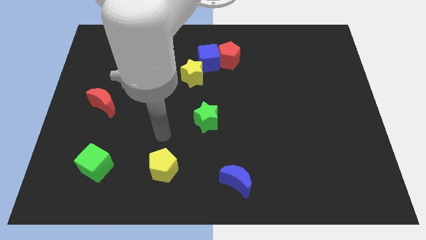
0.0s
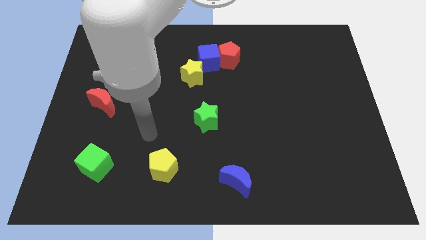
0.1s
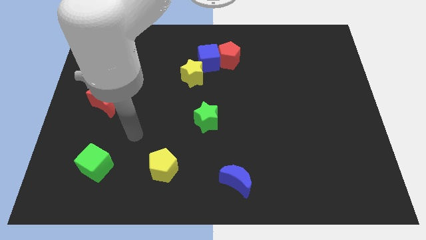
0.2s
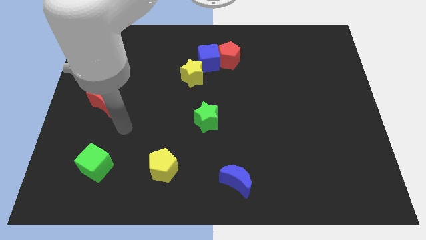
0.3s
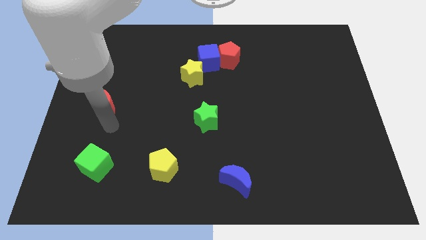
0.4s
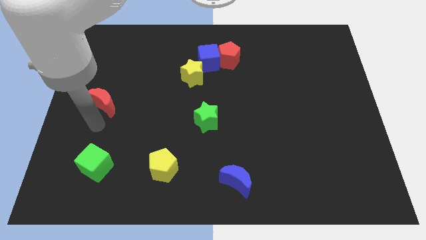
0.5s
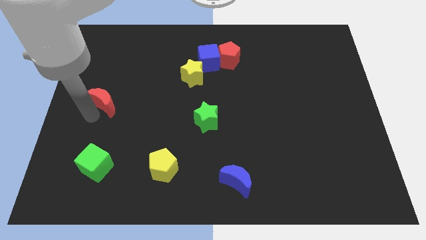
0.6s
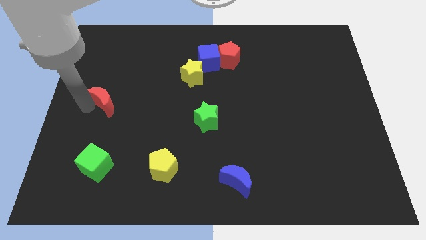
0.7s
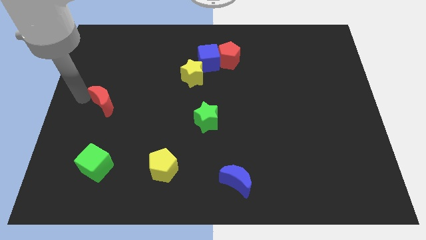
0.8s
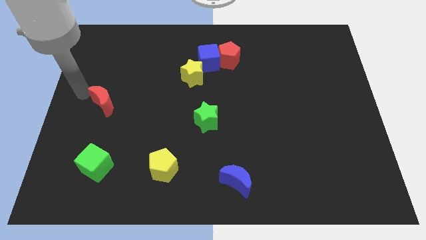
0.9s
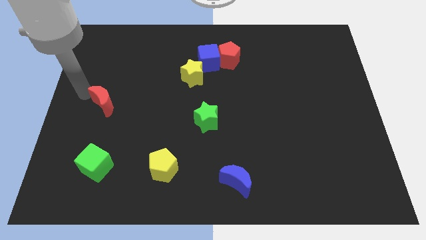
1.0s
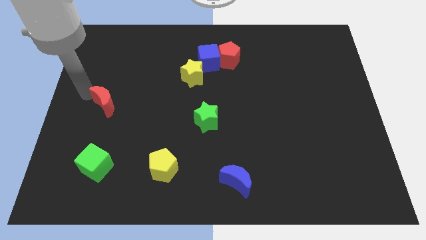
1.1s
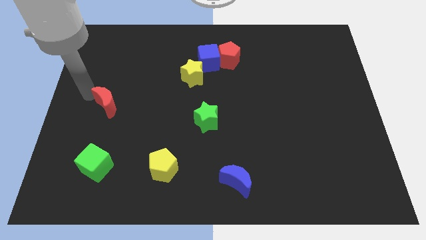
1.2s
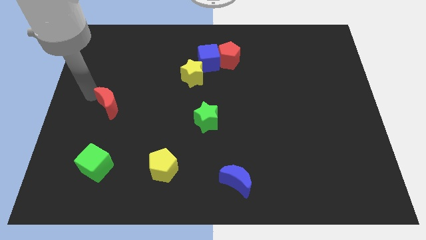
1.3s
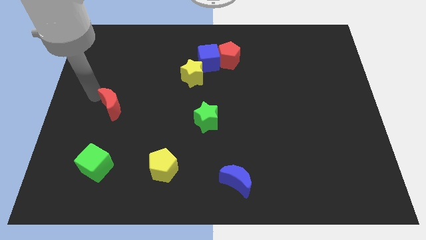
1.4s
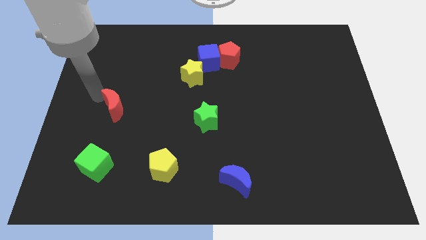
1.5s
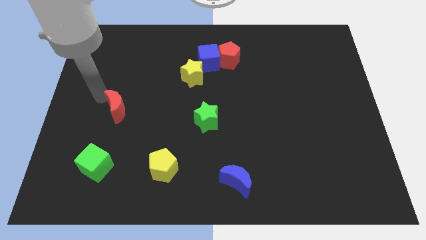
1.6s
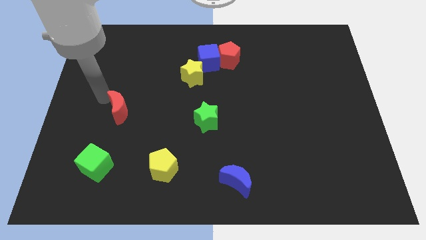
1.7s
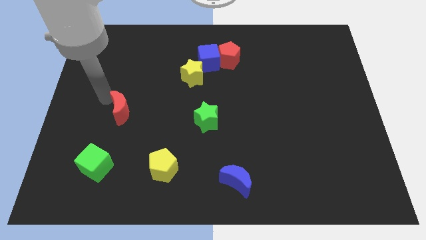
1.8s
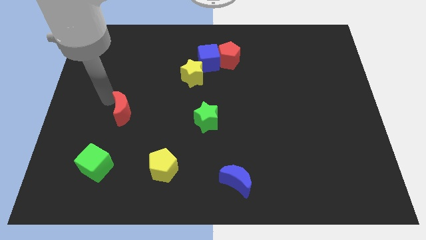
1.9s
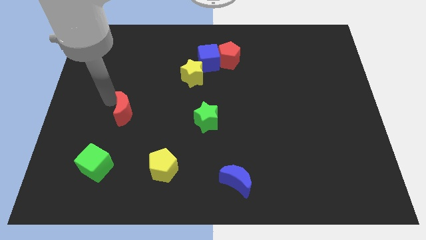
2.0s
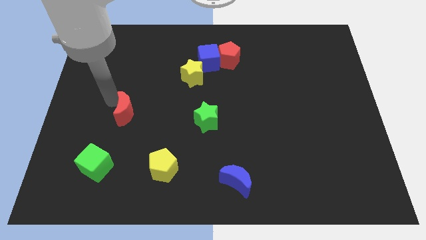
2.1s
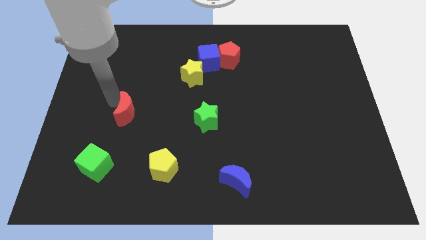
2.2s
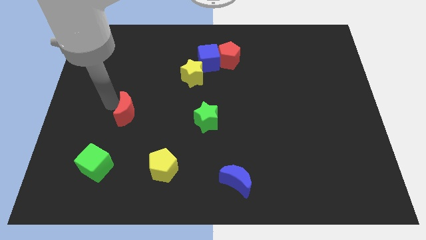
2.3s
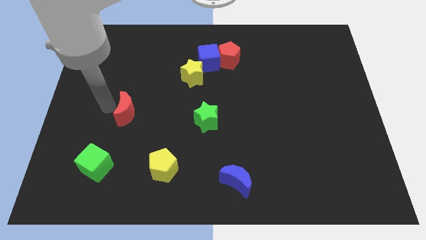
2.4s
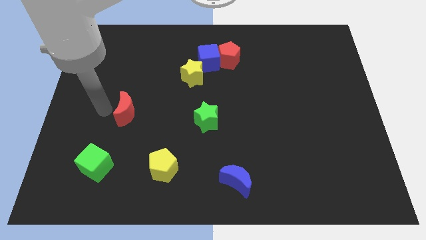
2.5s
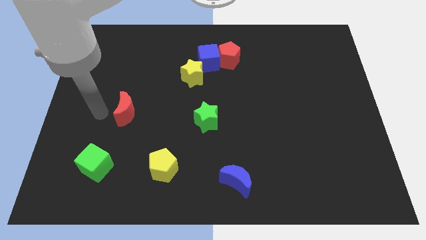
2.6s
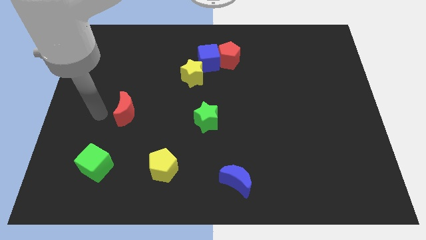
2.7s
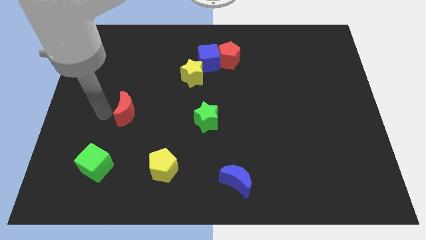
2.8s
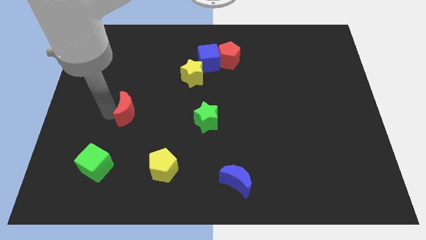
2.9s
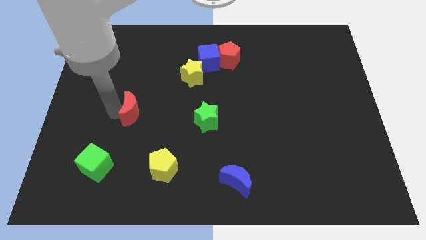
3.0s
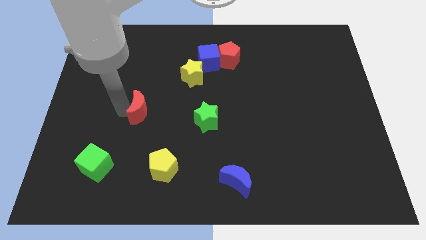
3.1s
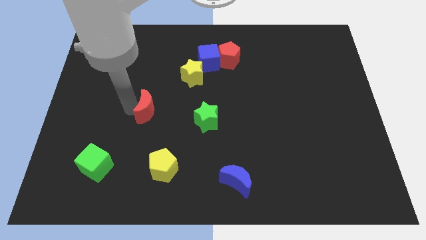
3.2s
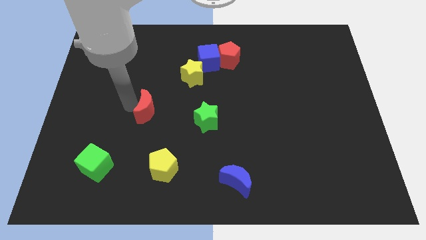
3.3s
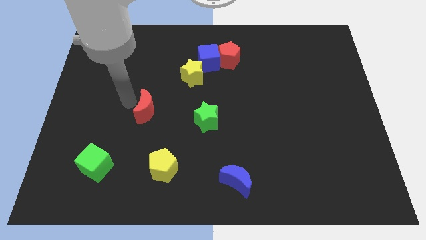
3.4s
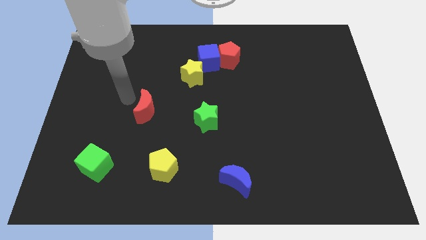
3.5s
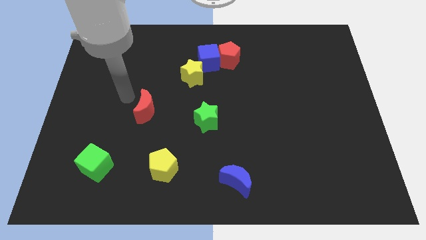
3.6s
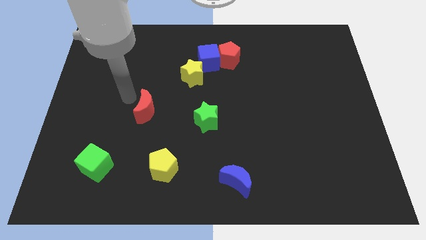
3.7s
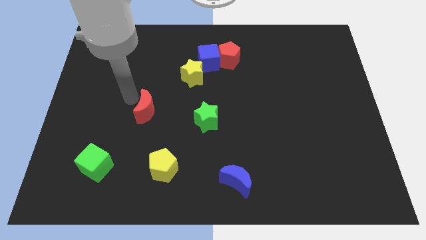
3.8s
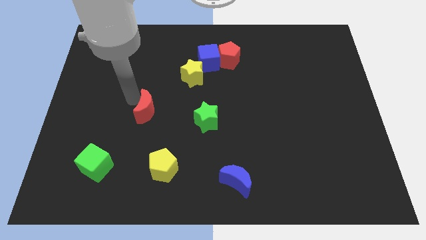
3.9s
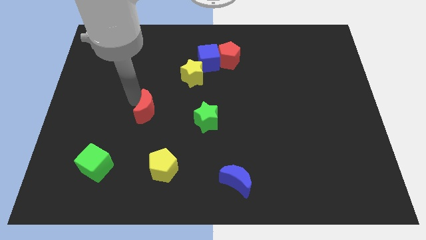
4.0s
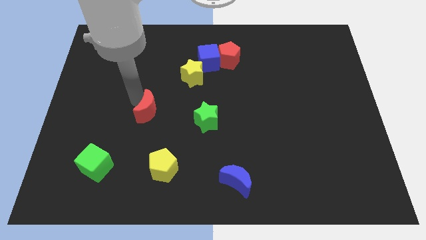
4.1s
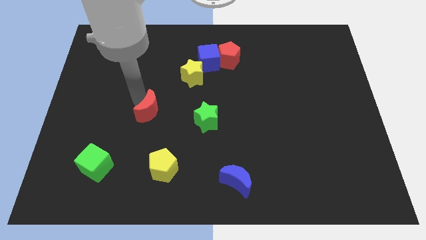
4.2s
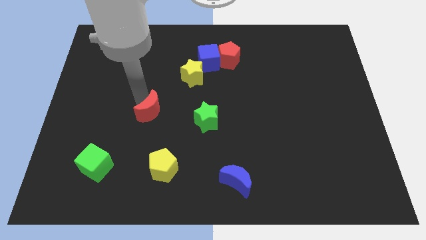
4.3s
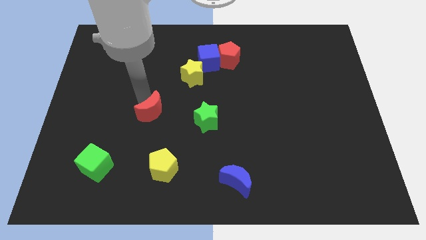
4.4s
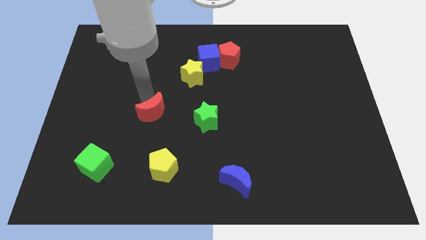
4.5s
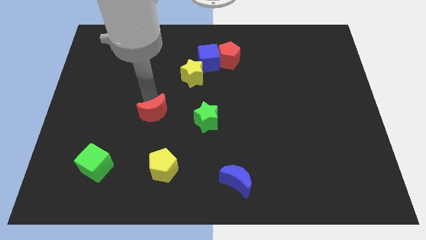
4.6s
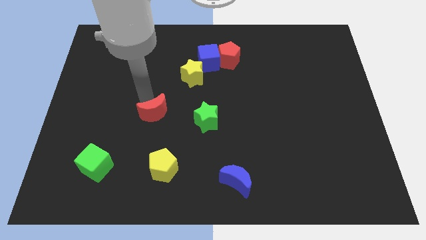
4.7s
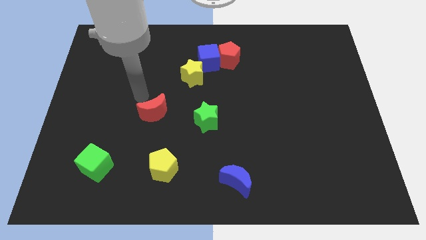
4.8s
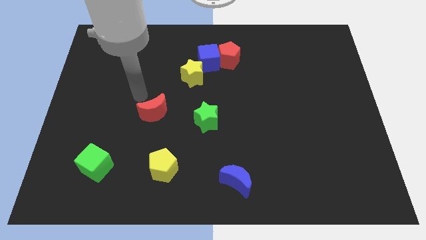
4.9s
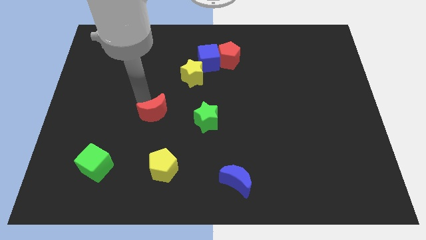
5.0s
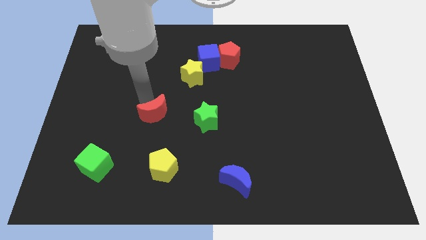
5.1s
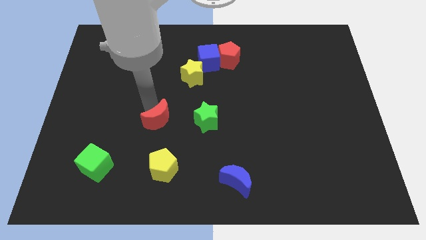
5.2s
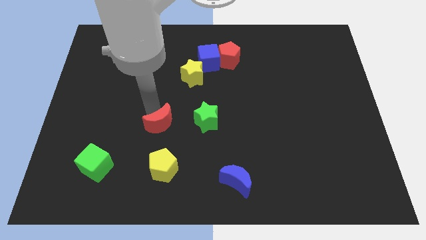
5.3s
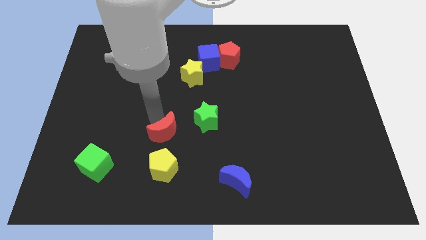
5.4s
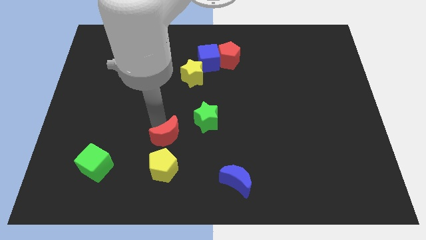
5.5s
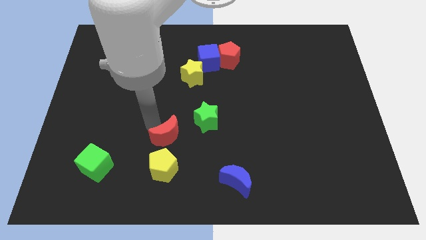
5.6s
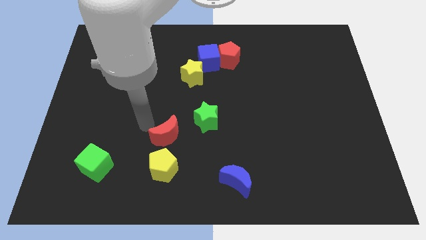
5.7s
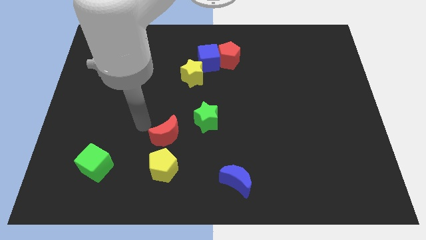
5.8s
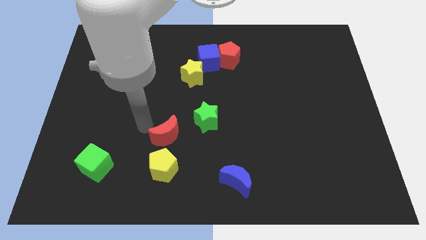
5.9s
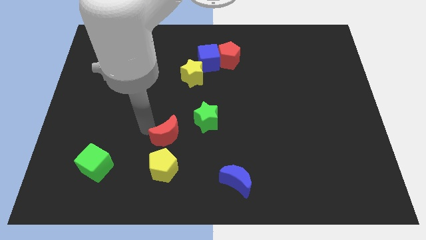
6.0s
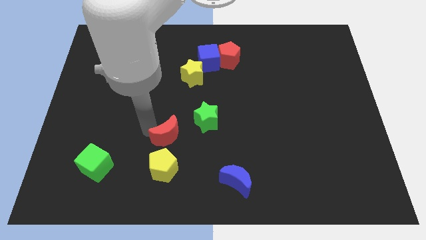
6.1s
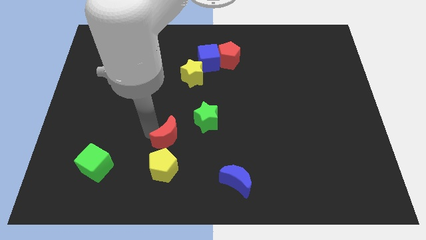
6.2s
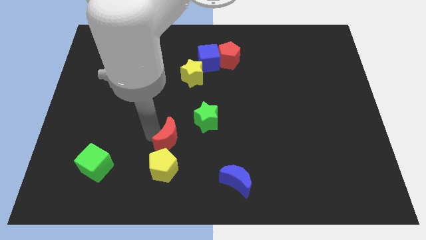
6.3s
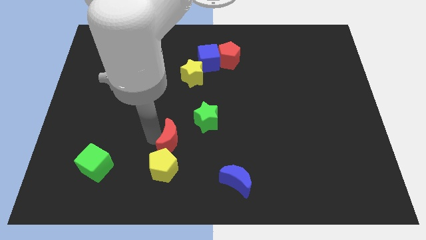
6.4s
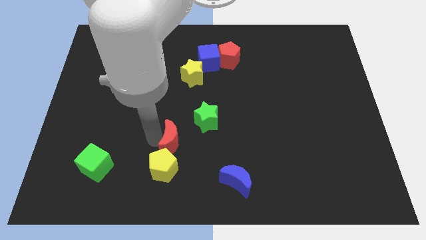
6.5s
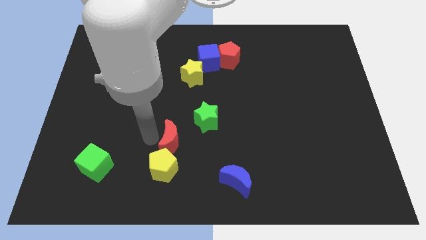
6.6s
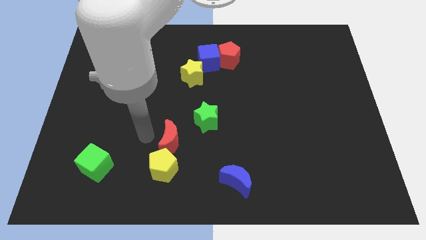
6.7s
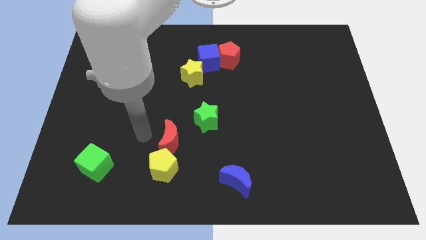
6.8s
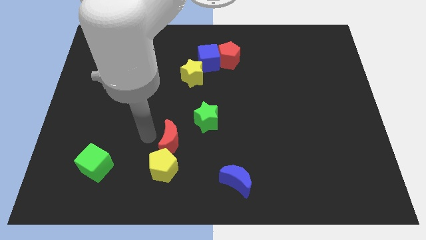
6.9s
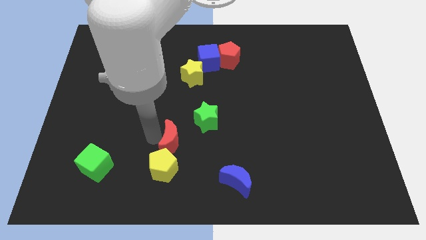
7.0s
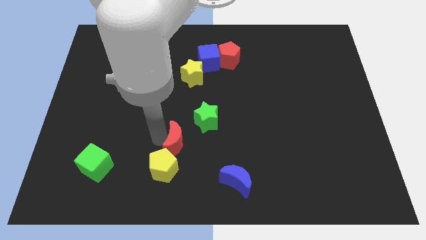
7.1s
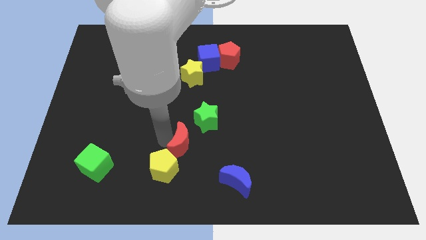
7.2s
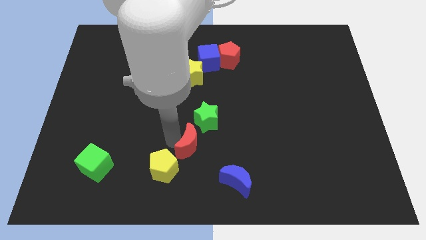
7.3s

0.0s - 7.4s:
move the red moon below the green star

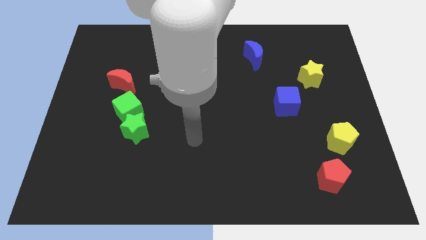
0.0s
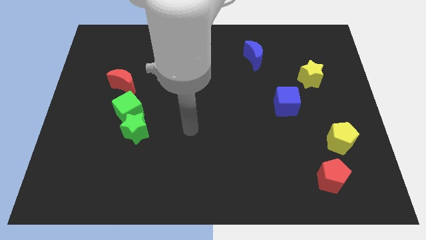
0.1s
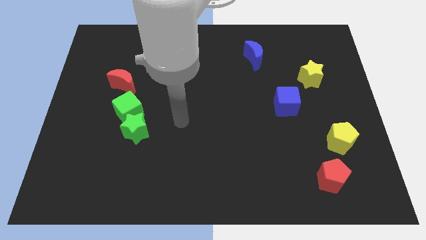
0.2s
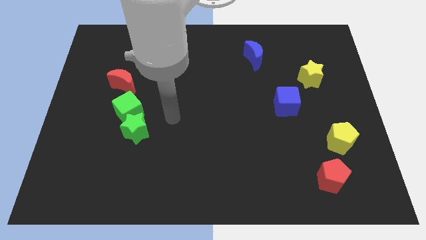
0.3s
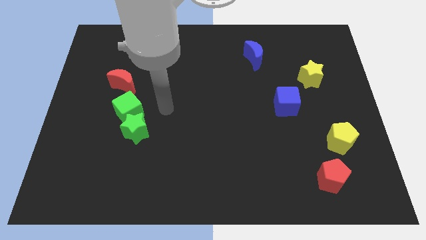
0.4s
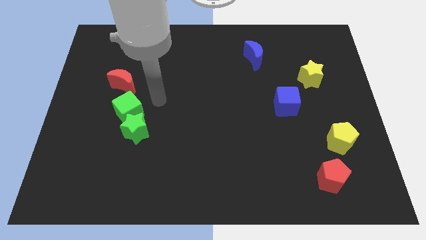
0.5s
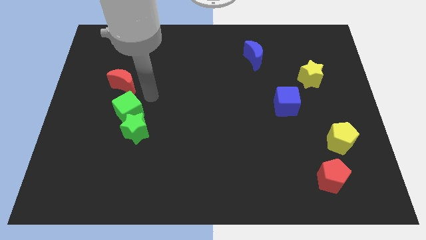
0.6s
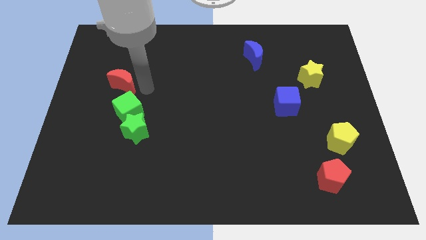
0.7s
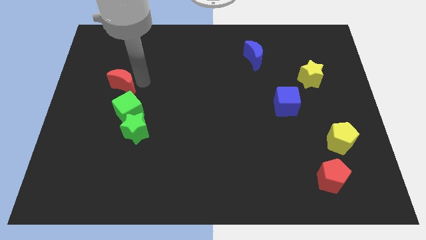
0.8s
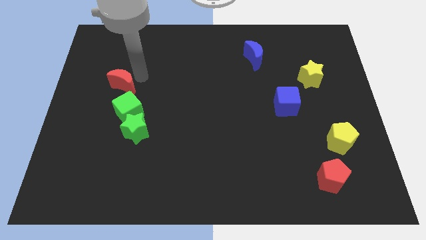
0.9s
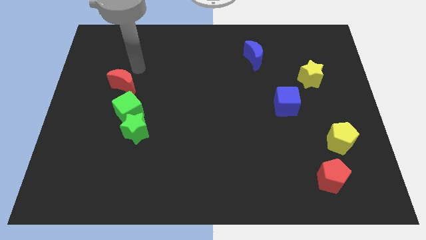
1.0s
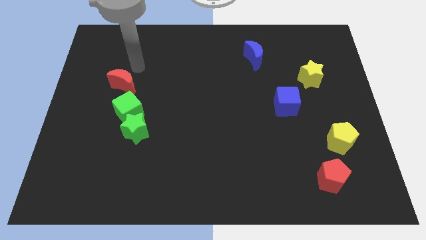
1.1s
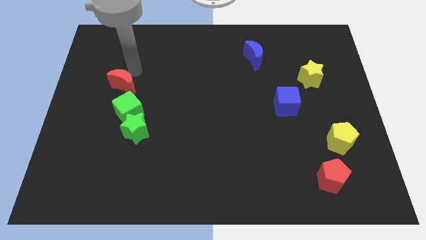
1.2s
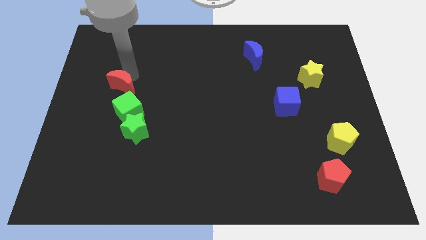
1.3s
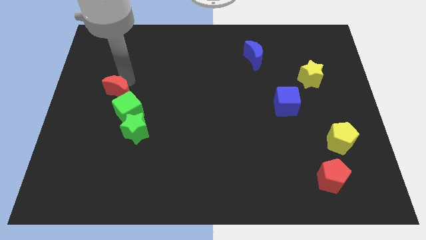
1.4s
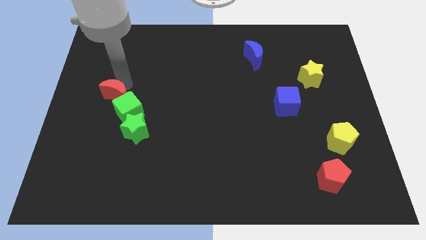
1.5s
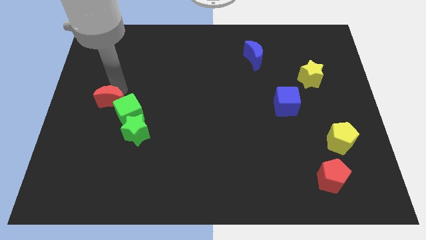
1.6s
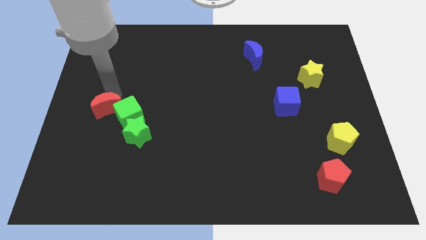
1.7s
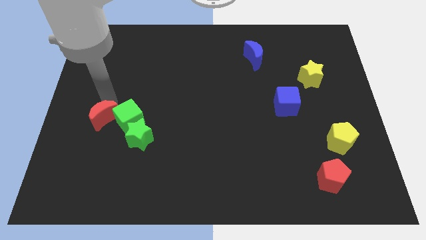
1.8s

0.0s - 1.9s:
push the red moon to the bottom left of the green cube
